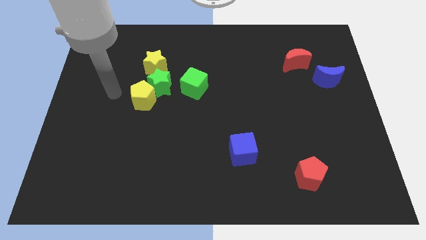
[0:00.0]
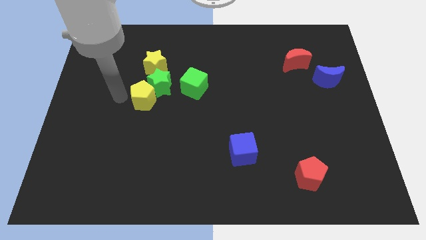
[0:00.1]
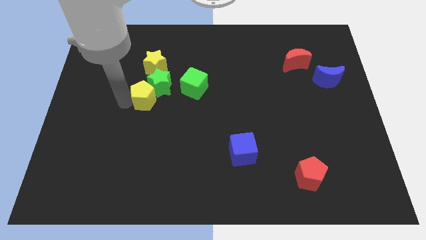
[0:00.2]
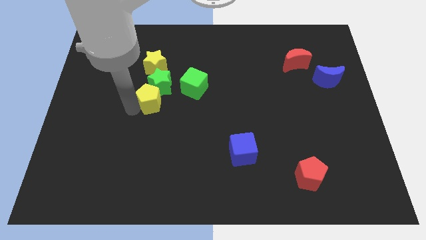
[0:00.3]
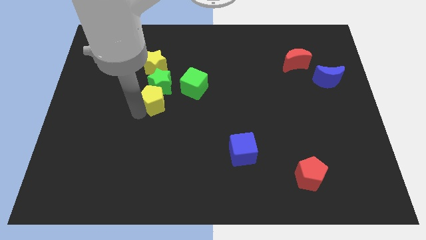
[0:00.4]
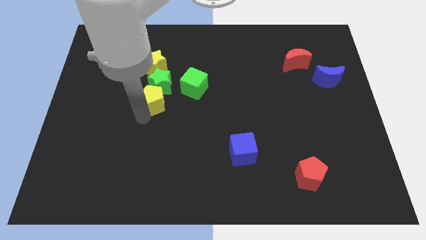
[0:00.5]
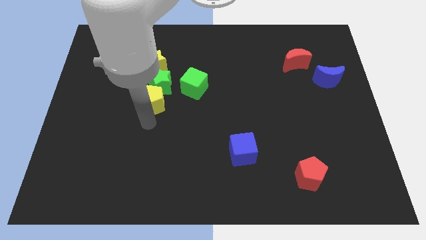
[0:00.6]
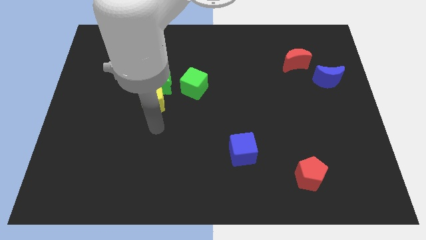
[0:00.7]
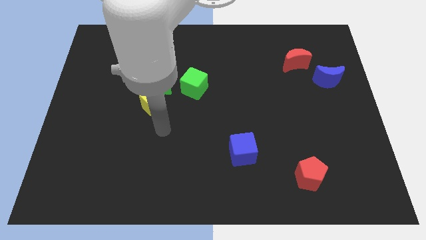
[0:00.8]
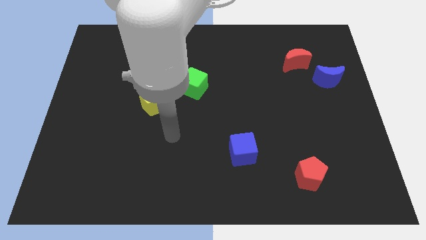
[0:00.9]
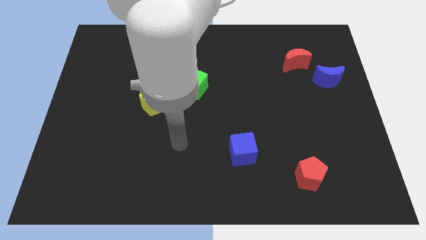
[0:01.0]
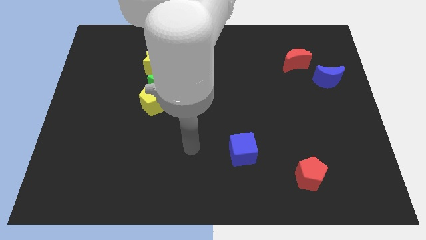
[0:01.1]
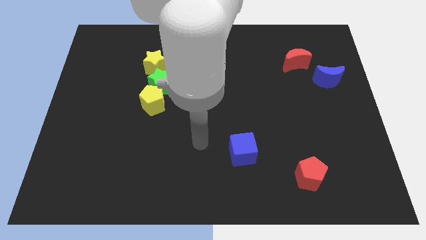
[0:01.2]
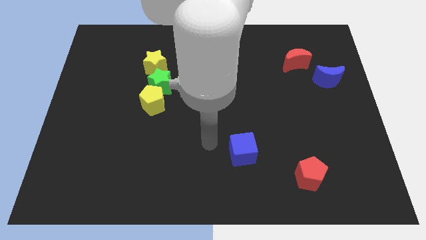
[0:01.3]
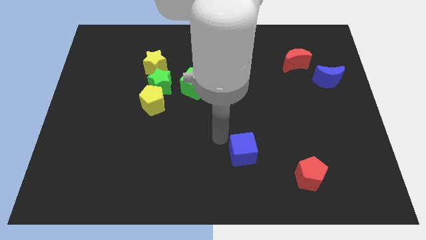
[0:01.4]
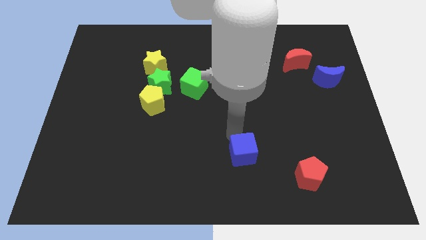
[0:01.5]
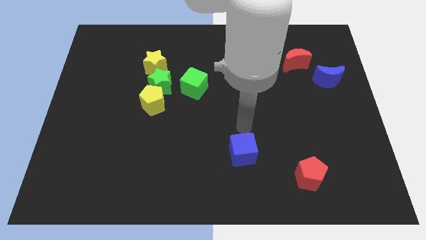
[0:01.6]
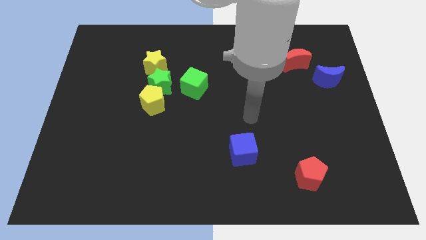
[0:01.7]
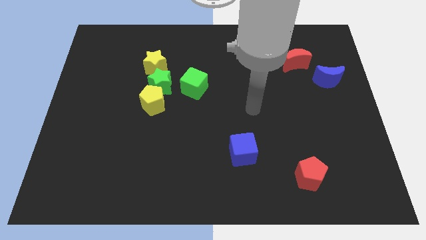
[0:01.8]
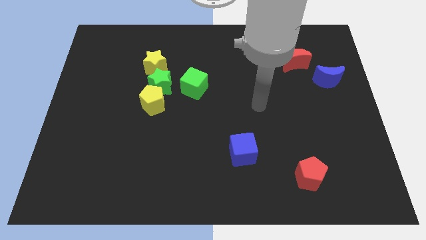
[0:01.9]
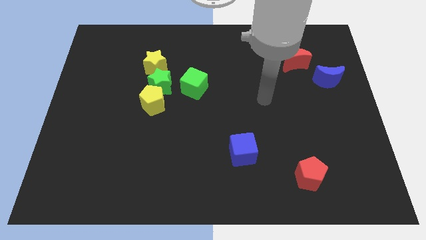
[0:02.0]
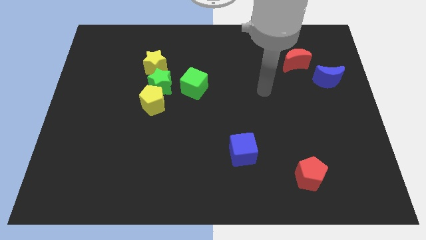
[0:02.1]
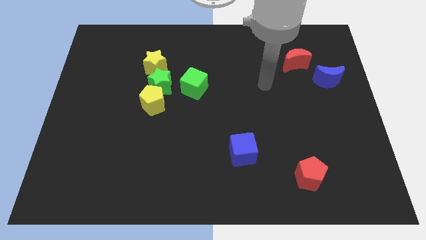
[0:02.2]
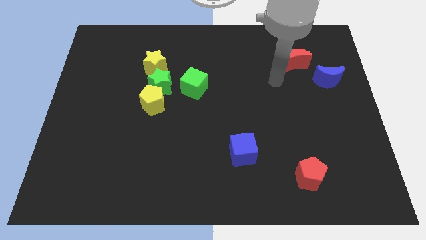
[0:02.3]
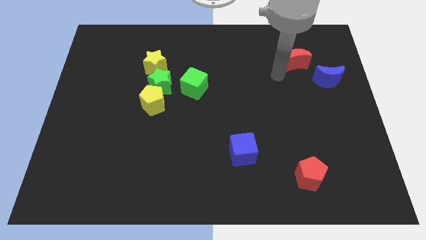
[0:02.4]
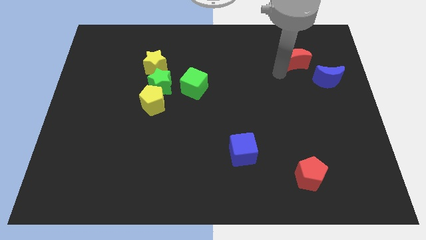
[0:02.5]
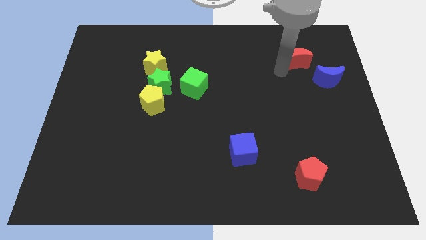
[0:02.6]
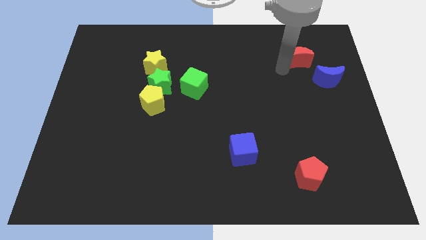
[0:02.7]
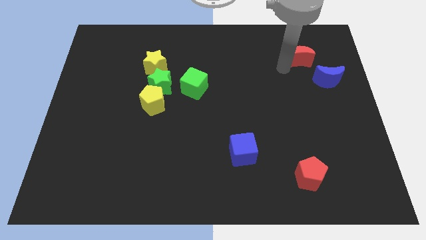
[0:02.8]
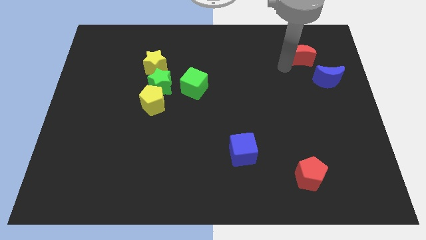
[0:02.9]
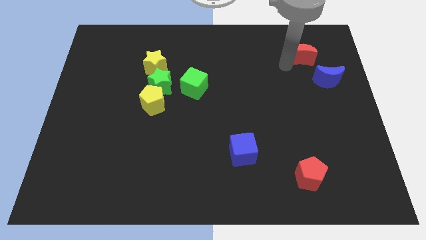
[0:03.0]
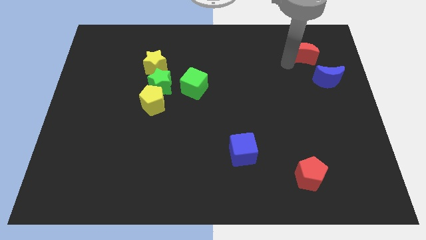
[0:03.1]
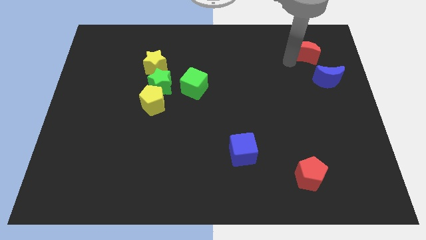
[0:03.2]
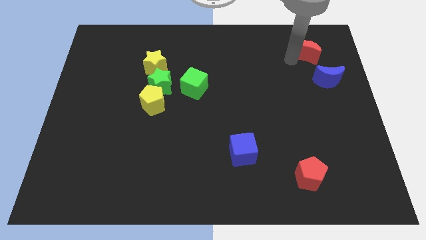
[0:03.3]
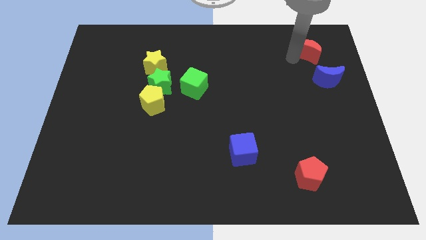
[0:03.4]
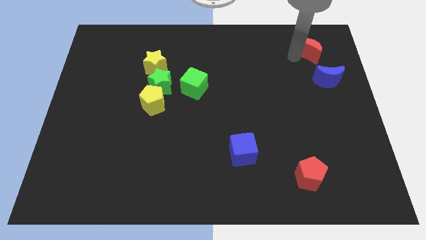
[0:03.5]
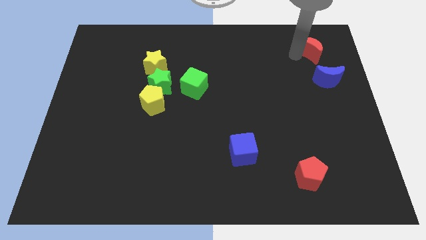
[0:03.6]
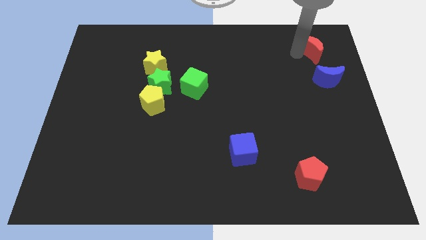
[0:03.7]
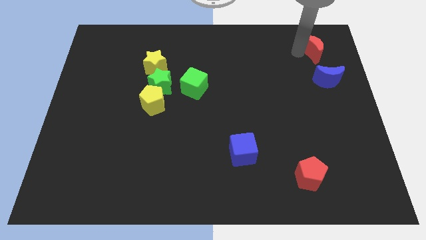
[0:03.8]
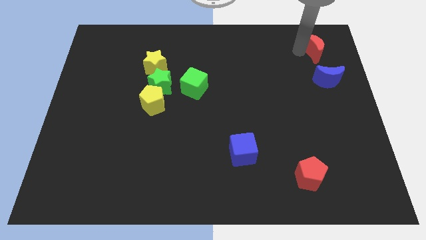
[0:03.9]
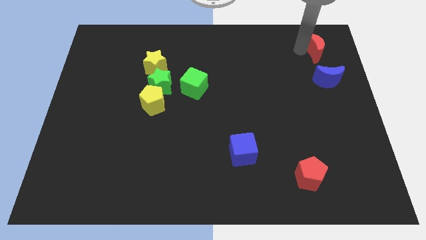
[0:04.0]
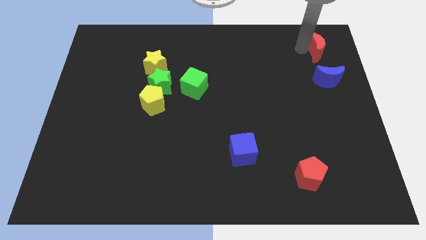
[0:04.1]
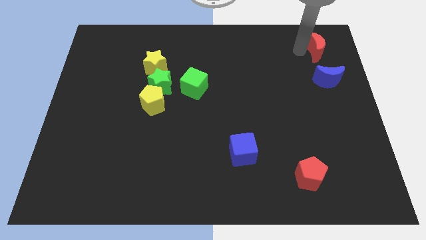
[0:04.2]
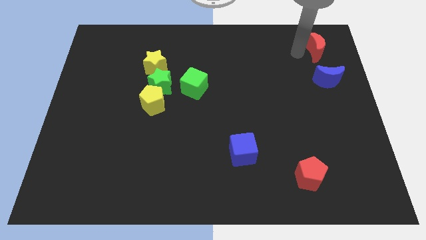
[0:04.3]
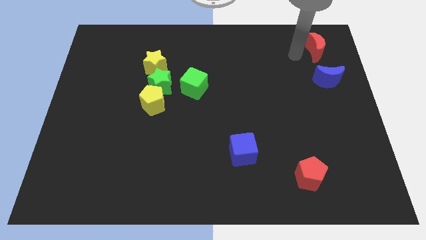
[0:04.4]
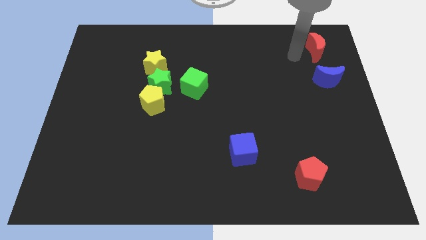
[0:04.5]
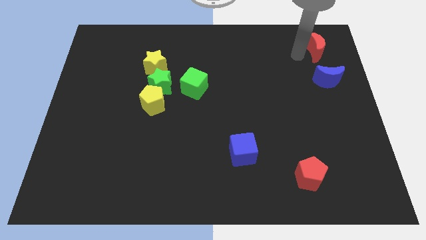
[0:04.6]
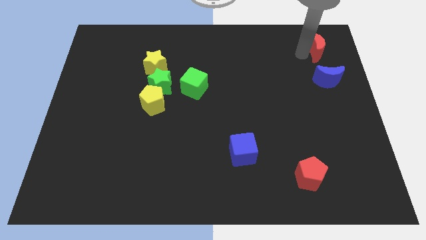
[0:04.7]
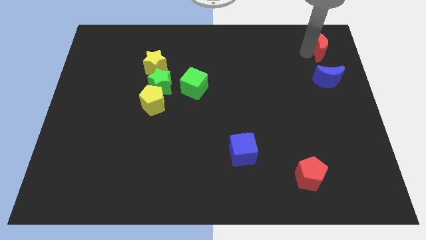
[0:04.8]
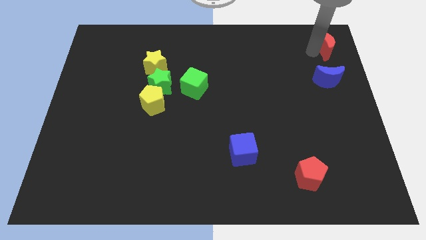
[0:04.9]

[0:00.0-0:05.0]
push the red moon to the upper right corner
